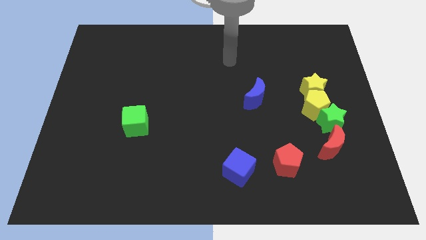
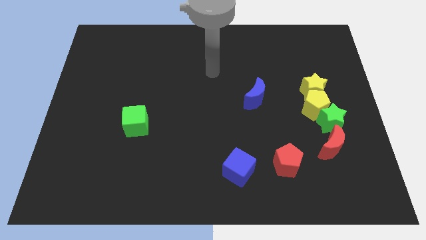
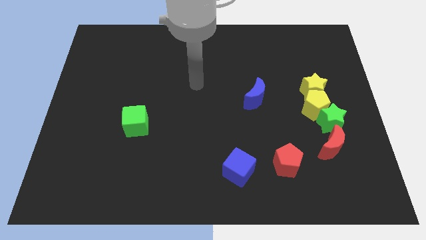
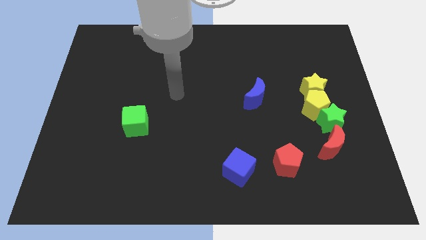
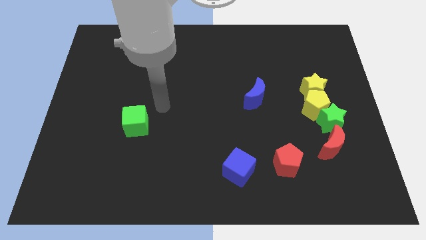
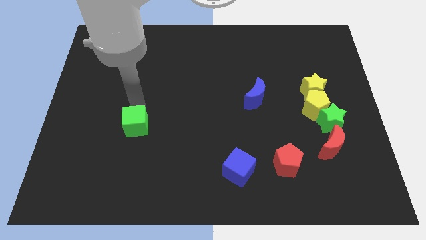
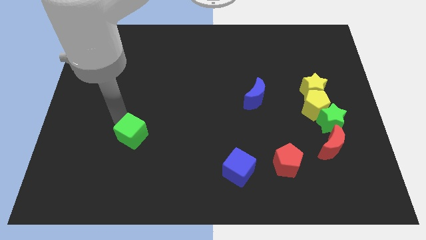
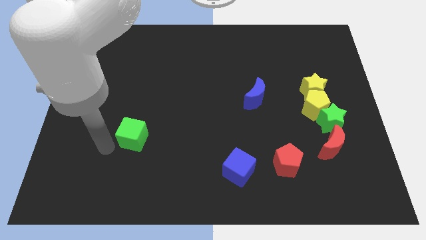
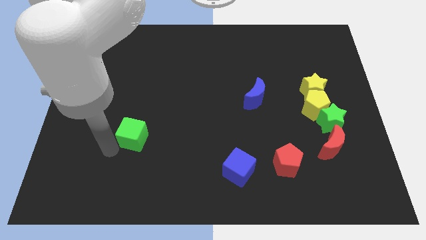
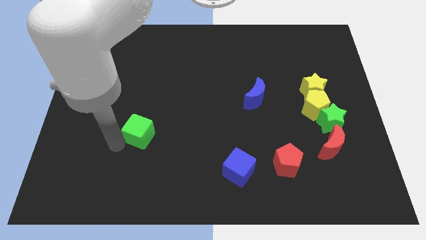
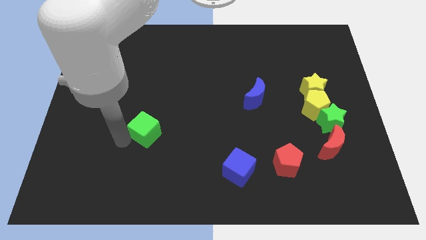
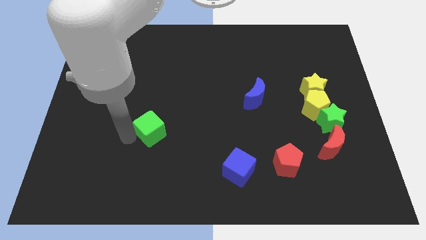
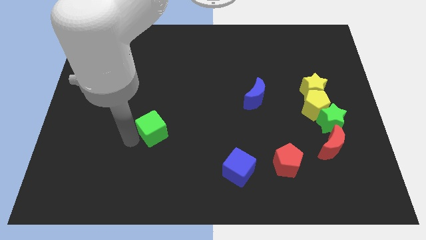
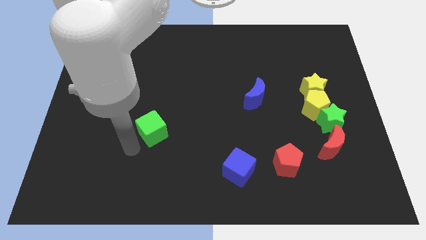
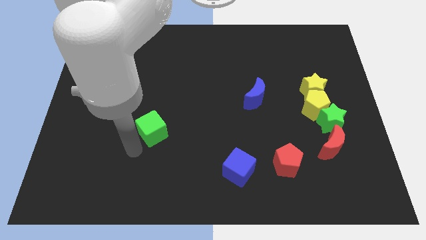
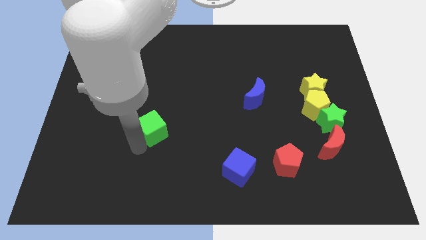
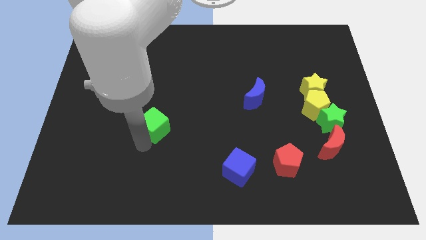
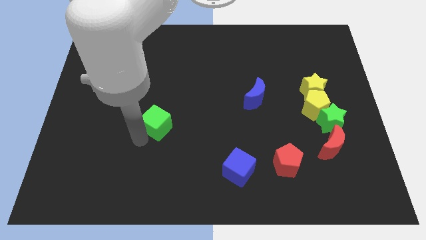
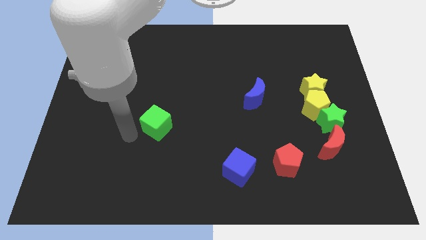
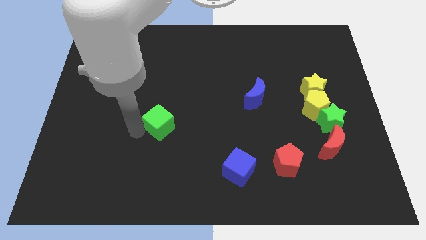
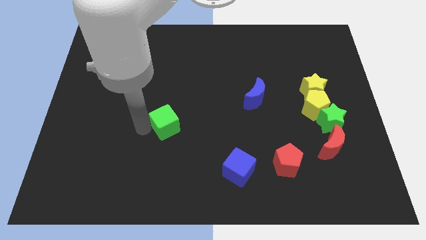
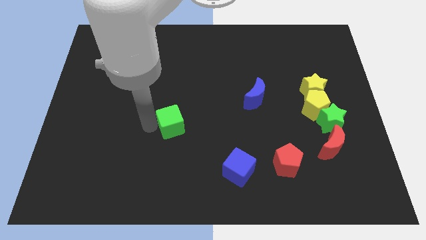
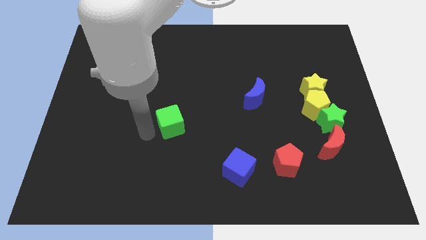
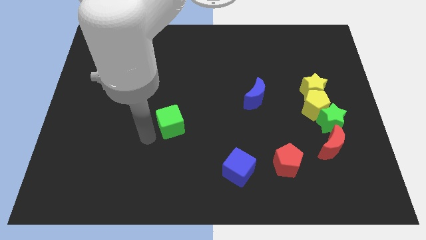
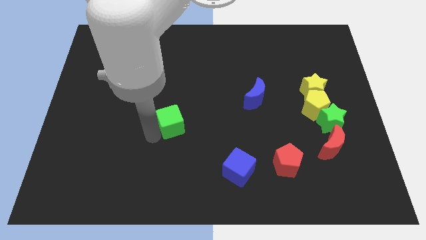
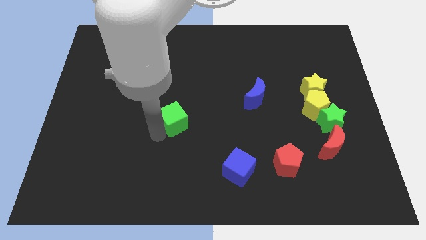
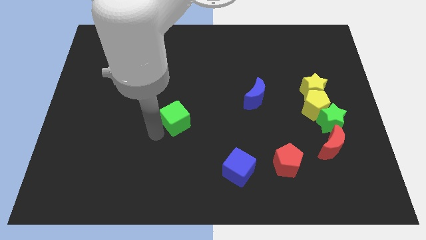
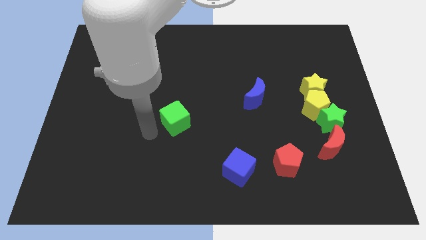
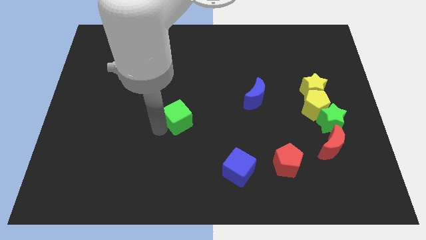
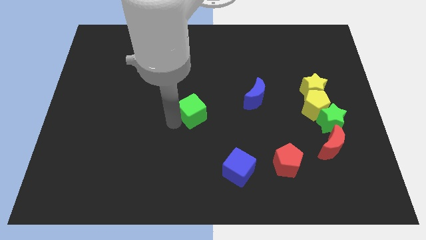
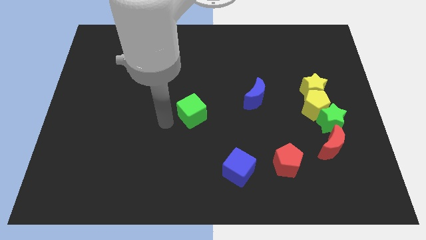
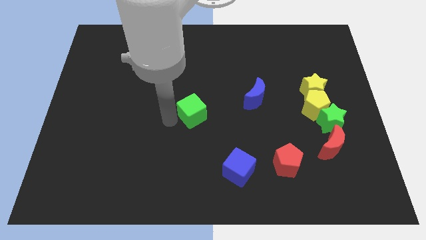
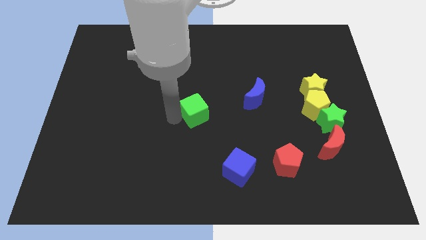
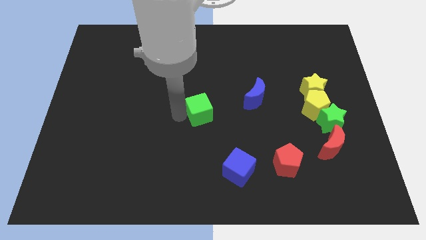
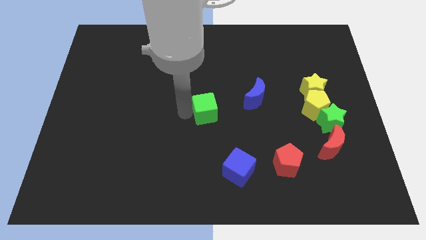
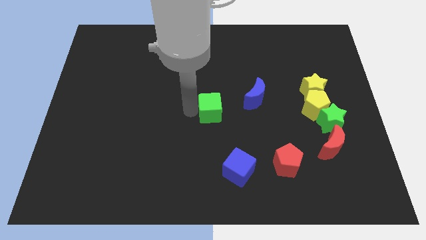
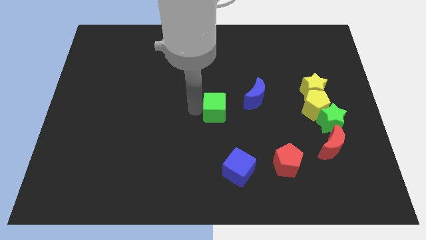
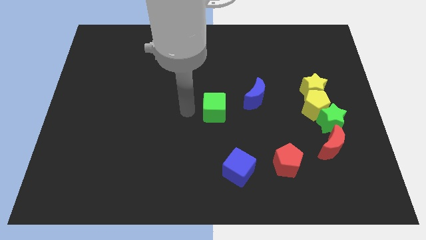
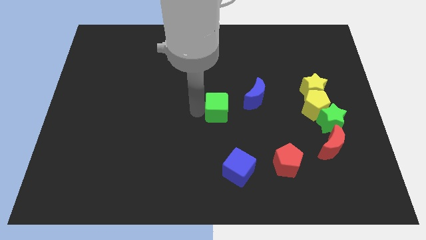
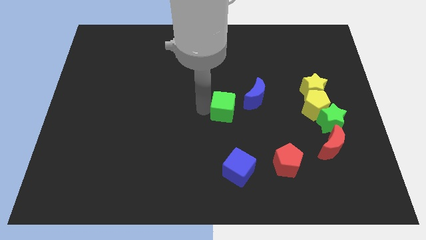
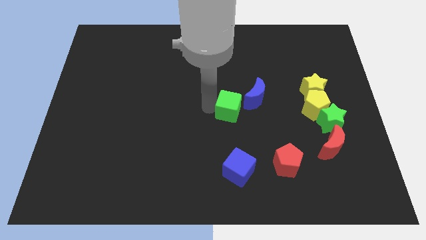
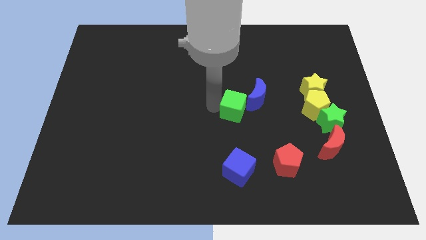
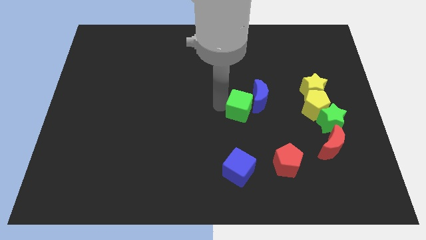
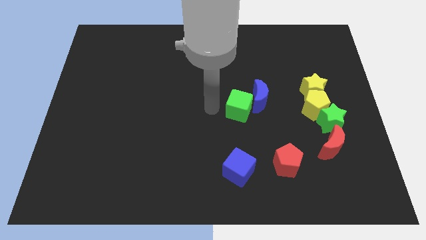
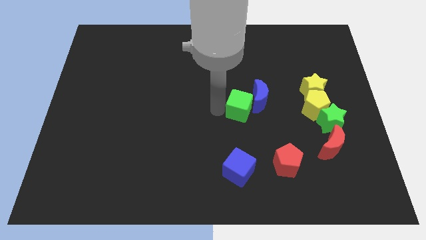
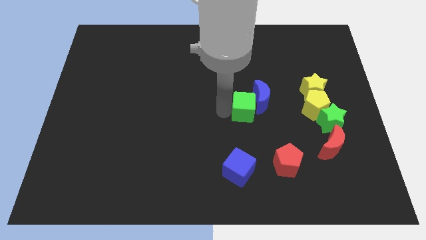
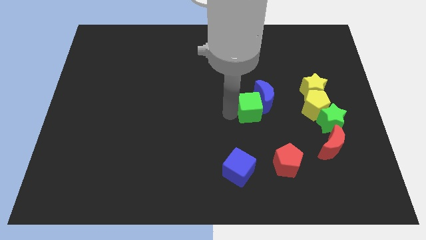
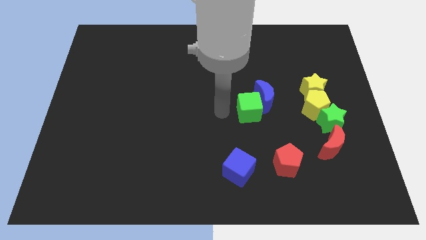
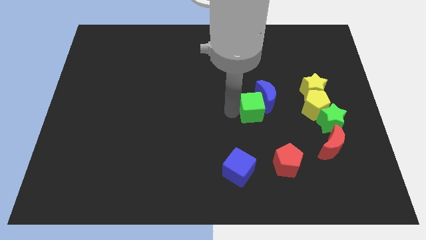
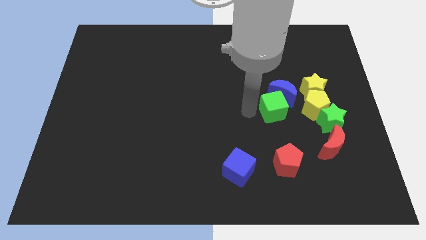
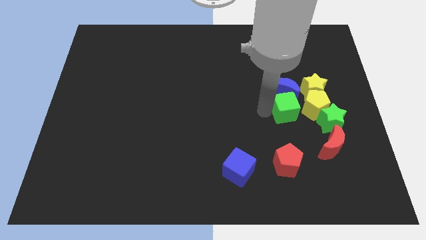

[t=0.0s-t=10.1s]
put the green cube diagonally up and to the left of the green star

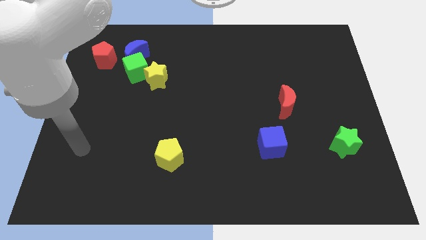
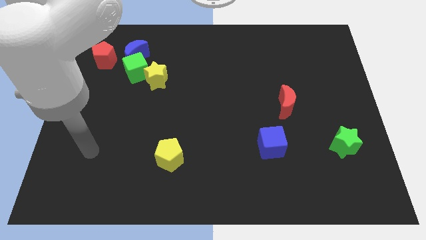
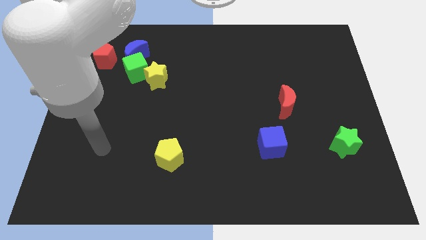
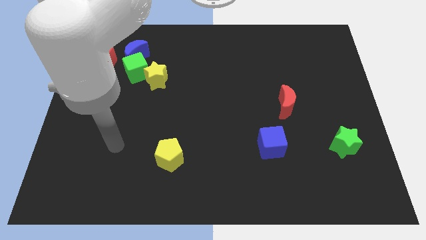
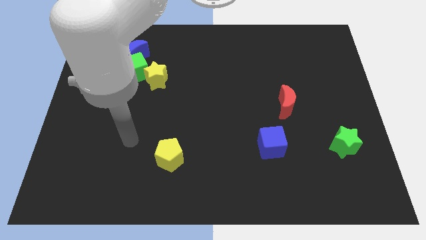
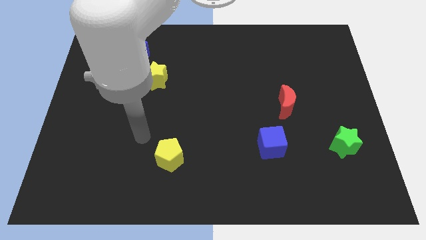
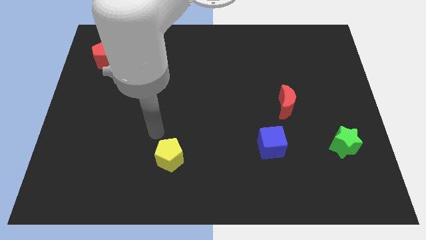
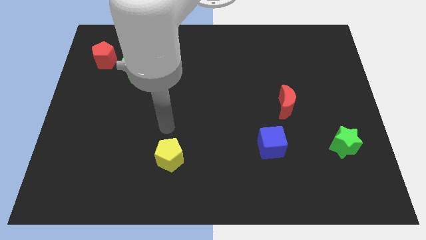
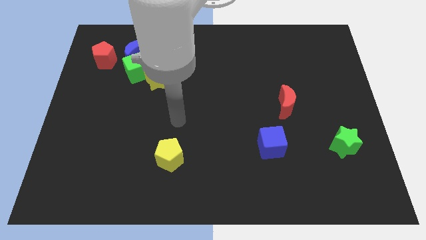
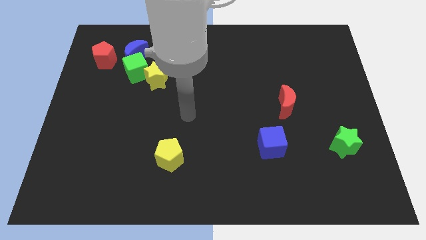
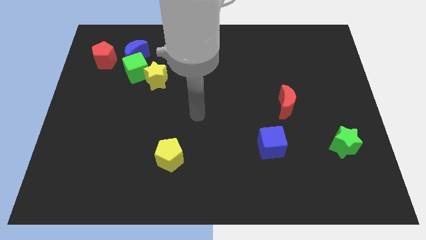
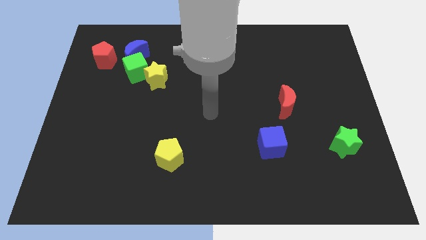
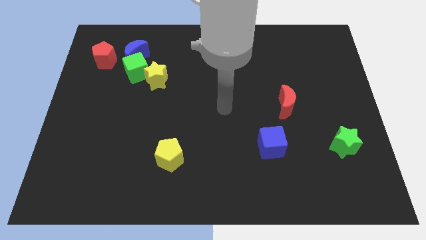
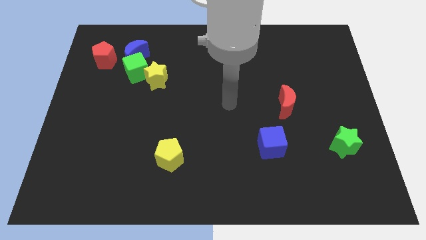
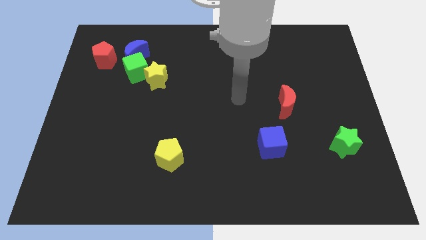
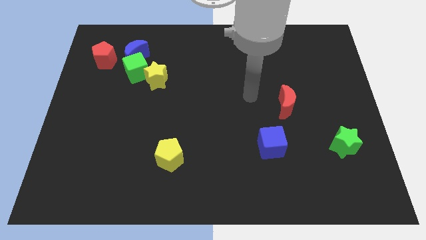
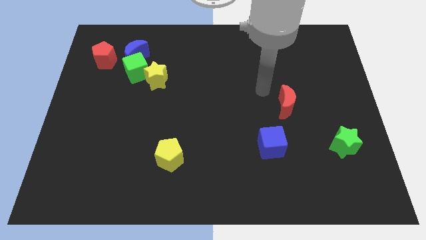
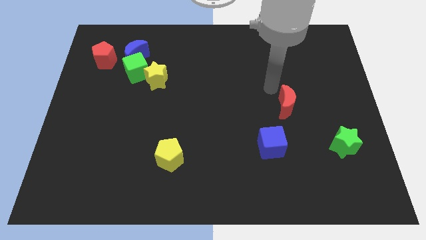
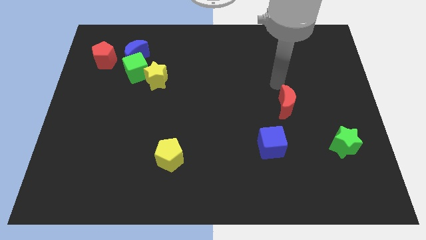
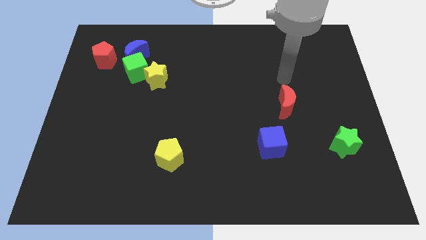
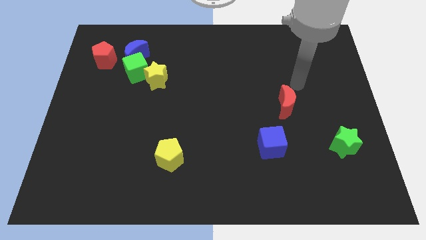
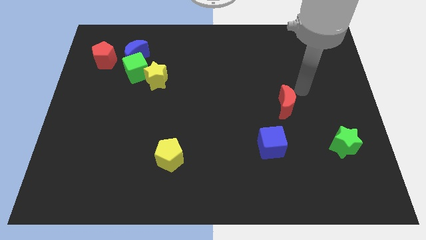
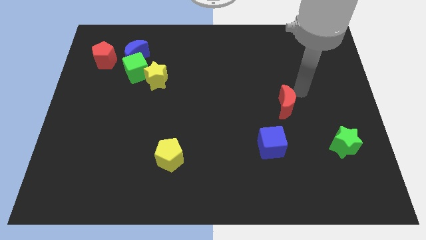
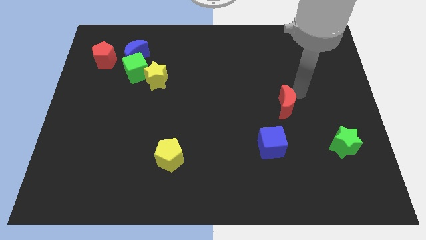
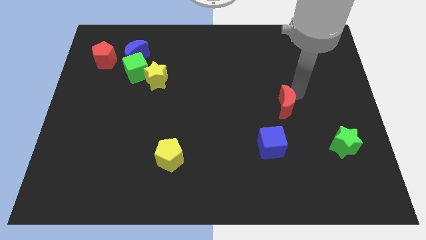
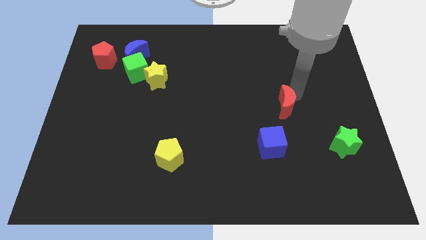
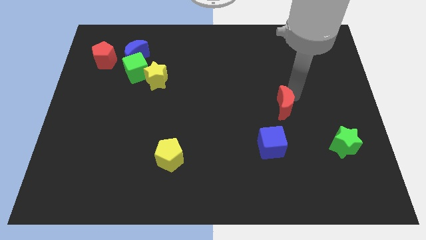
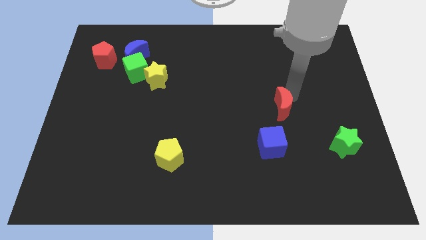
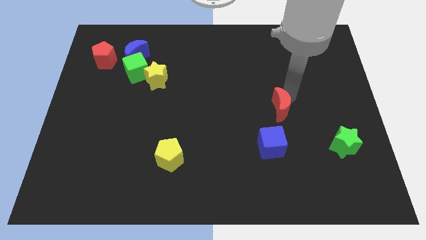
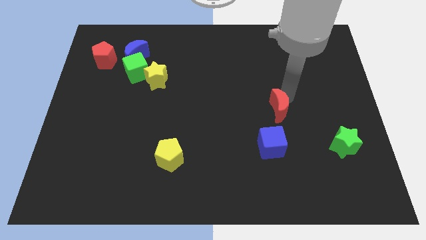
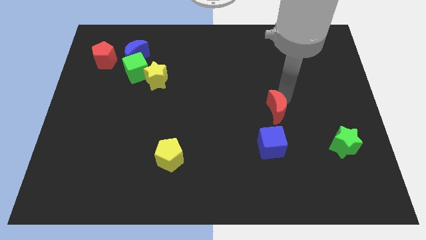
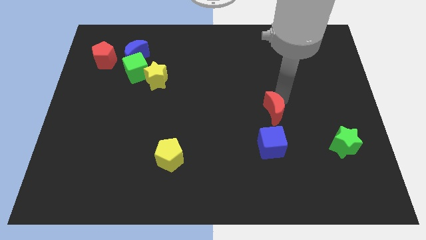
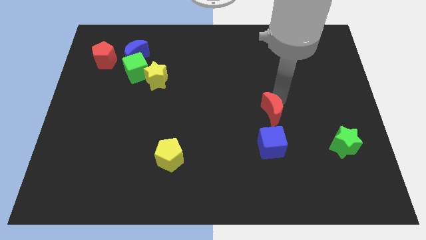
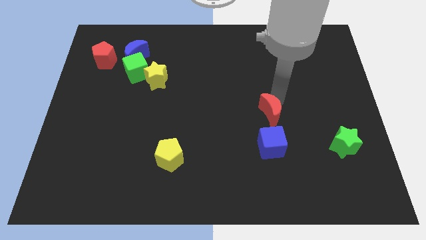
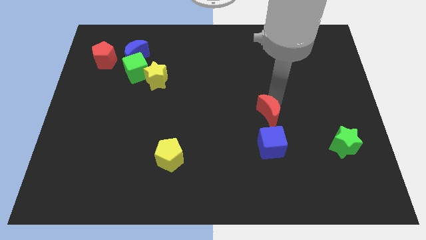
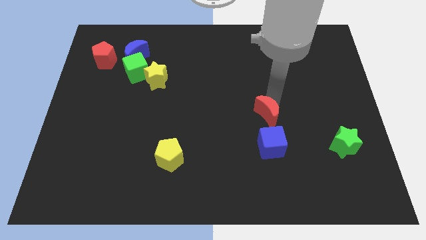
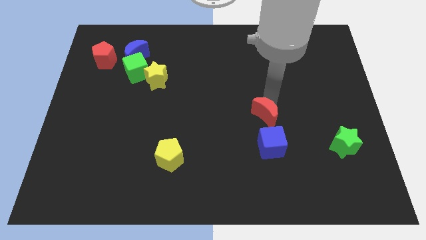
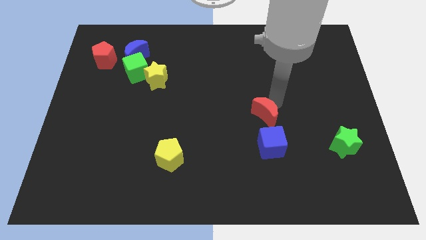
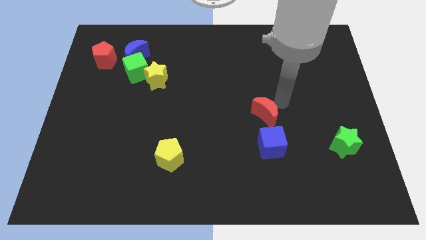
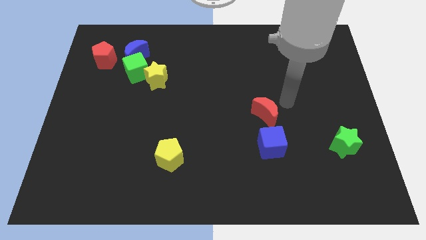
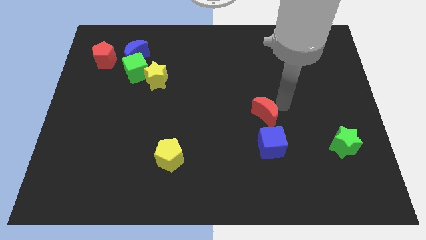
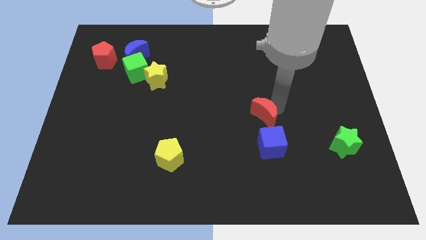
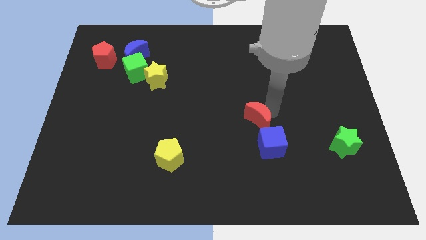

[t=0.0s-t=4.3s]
move the red moon to the top left of the blue cube
